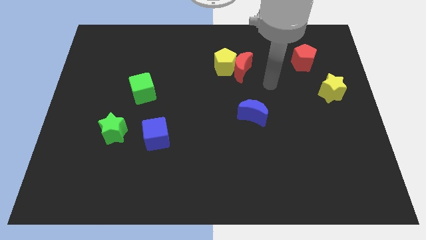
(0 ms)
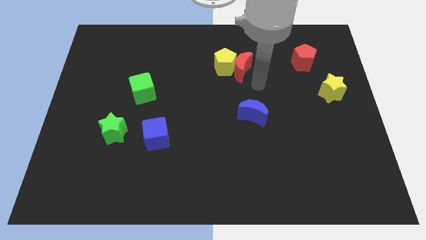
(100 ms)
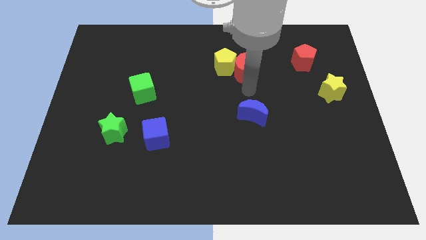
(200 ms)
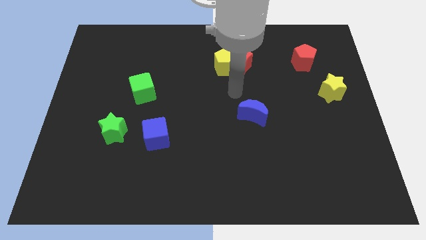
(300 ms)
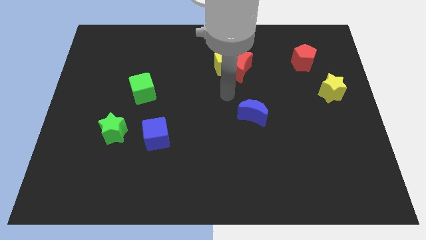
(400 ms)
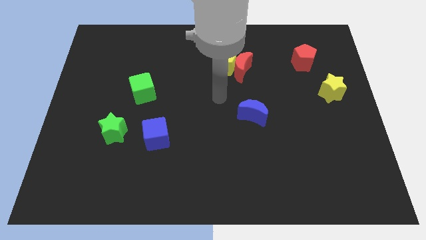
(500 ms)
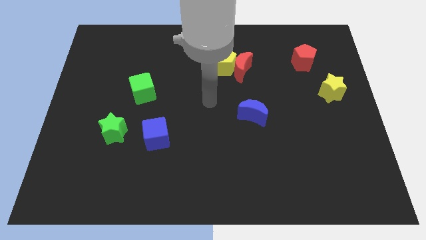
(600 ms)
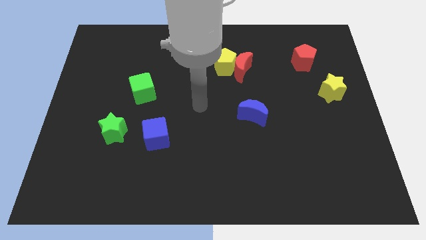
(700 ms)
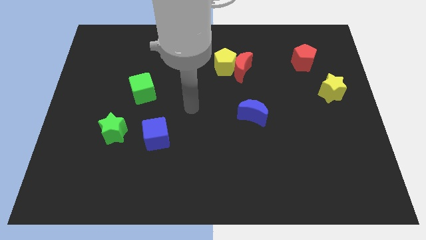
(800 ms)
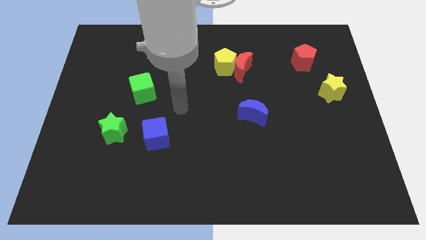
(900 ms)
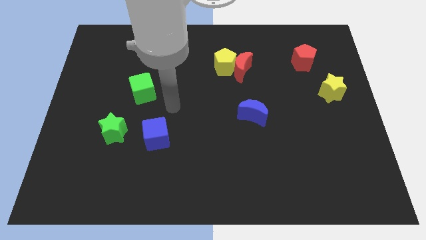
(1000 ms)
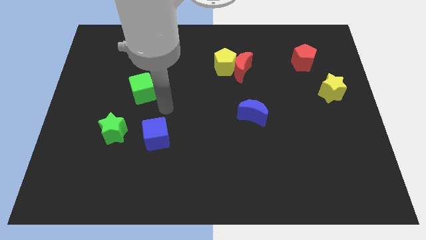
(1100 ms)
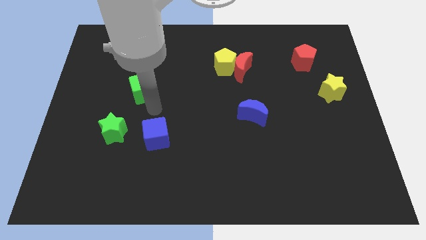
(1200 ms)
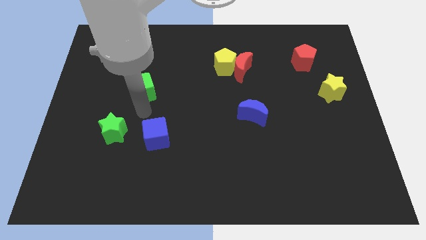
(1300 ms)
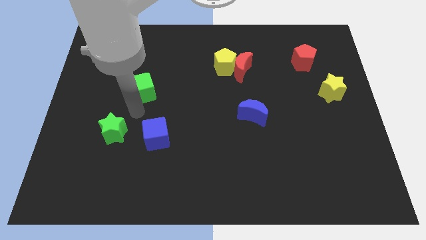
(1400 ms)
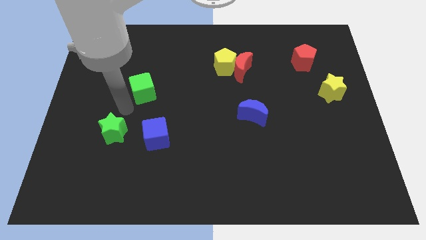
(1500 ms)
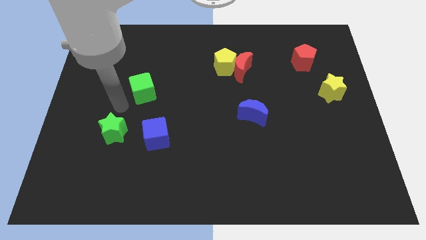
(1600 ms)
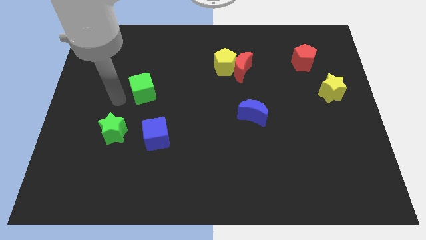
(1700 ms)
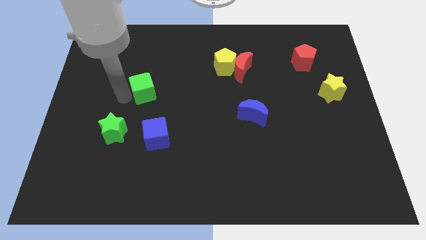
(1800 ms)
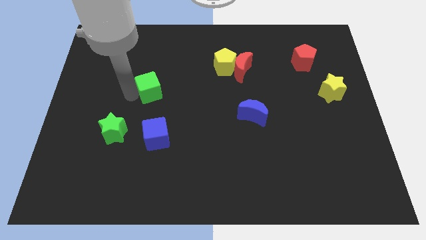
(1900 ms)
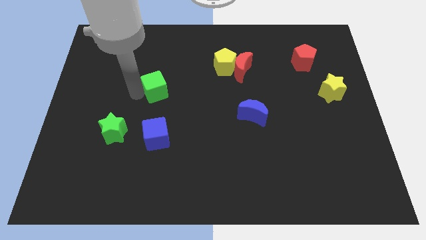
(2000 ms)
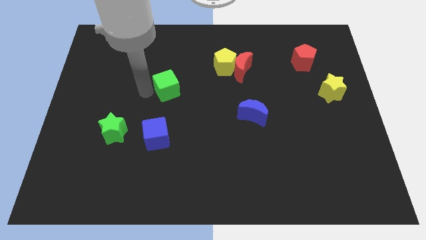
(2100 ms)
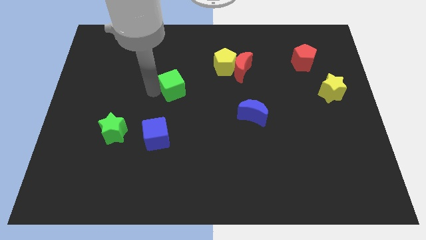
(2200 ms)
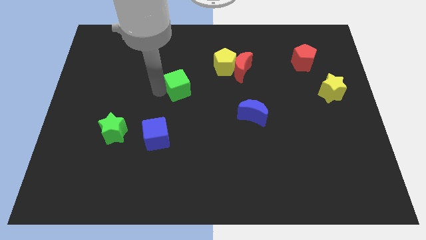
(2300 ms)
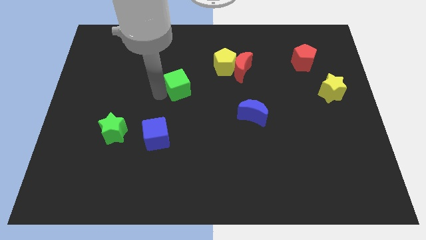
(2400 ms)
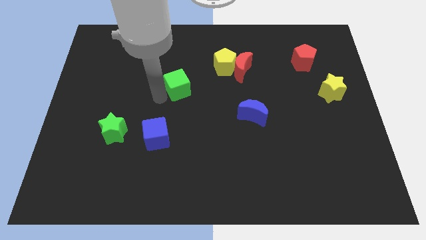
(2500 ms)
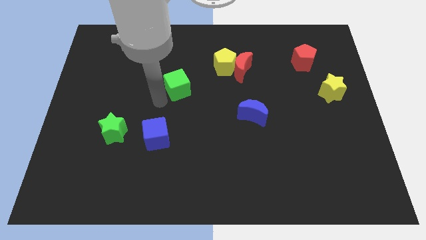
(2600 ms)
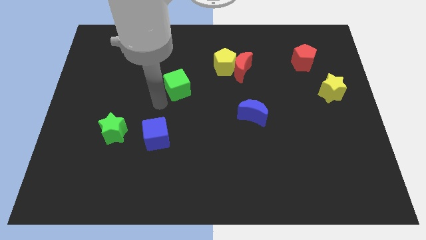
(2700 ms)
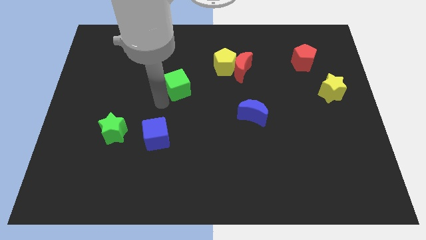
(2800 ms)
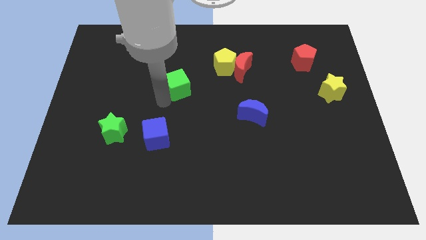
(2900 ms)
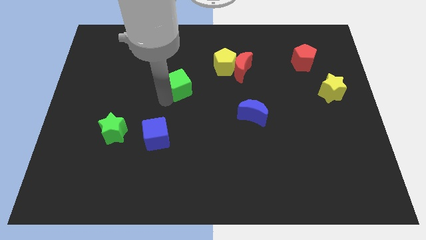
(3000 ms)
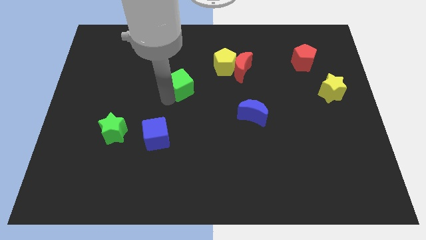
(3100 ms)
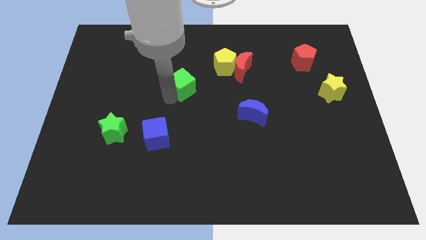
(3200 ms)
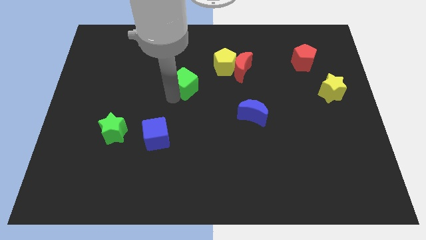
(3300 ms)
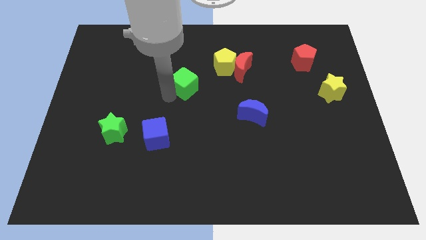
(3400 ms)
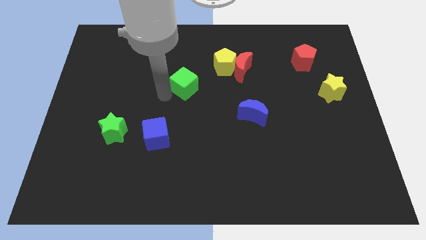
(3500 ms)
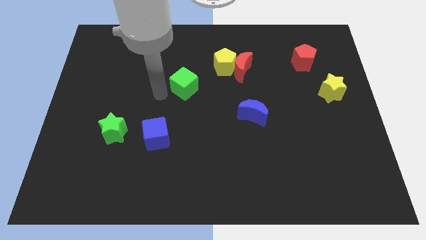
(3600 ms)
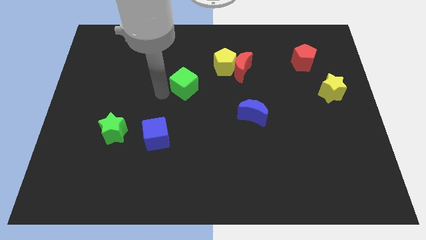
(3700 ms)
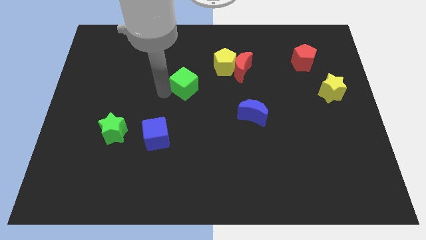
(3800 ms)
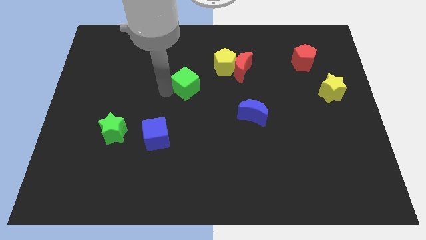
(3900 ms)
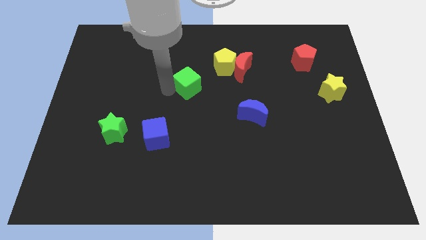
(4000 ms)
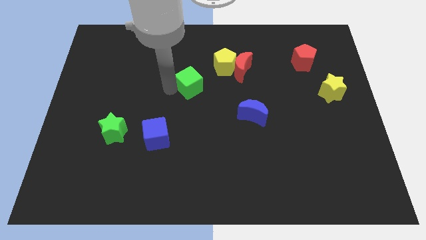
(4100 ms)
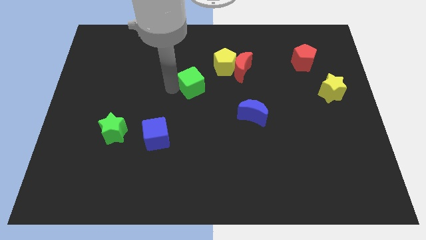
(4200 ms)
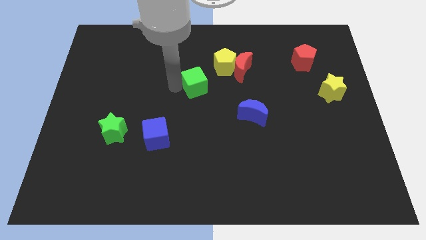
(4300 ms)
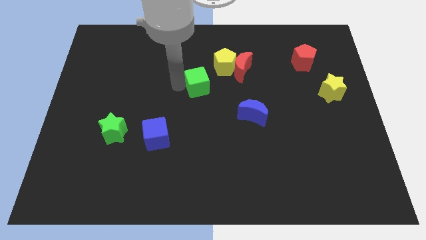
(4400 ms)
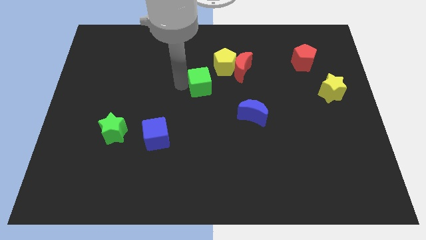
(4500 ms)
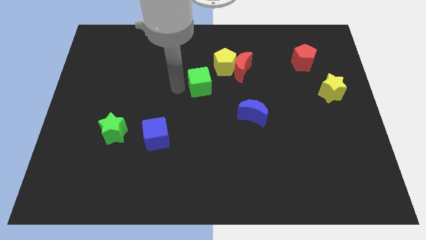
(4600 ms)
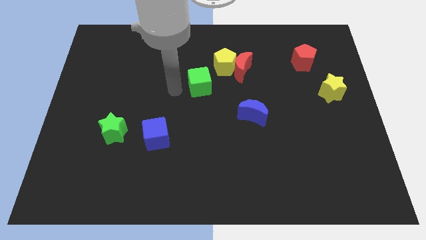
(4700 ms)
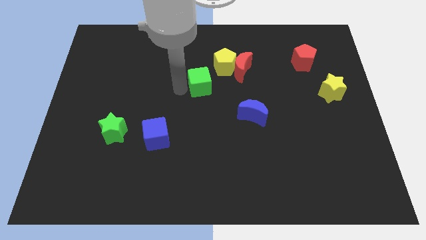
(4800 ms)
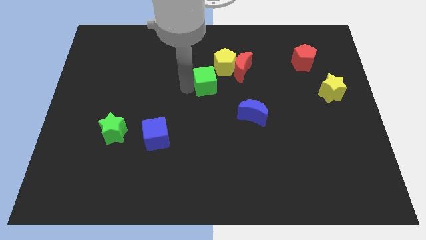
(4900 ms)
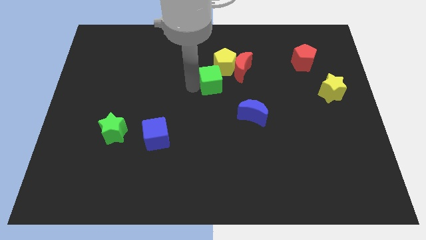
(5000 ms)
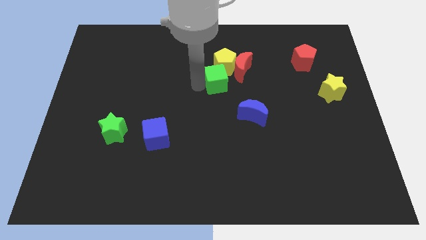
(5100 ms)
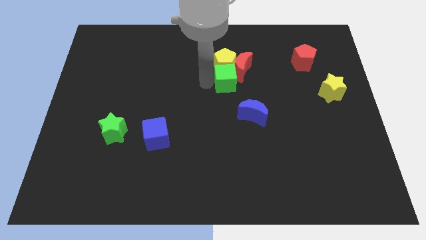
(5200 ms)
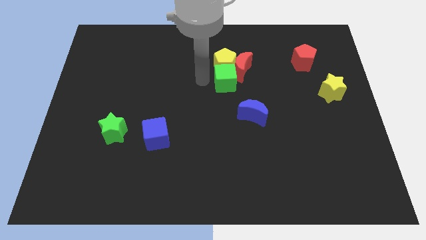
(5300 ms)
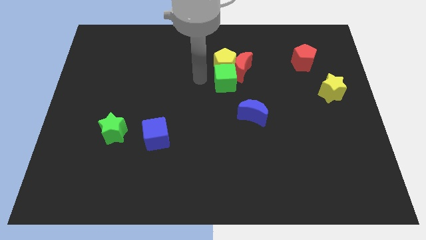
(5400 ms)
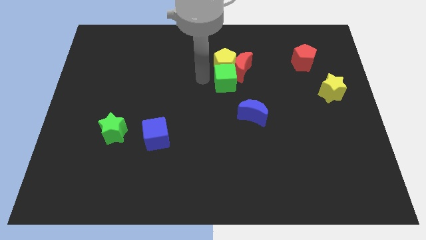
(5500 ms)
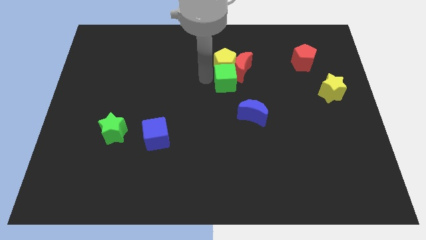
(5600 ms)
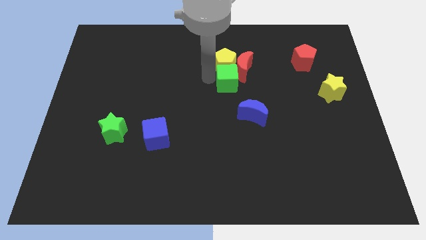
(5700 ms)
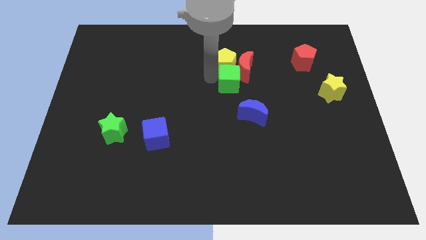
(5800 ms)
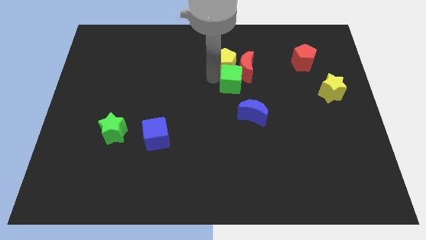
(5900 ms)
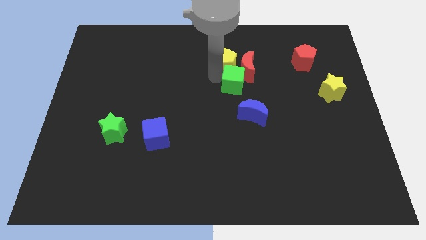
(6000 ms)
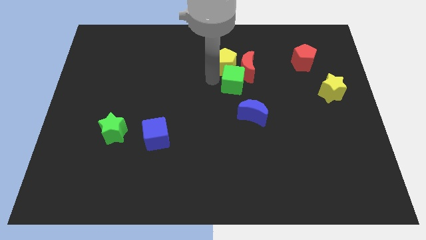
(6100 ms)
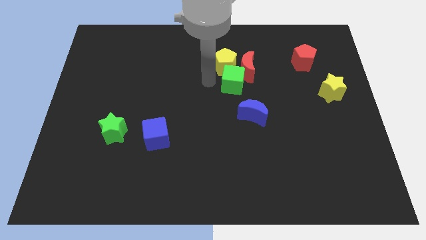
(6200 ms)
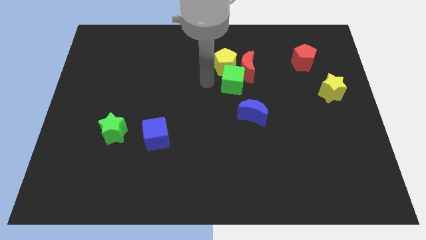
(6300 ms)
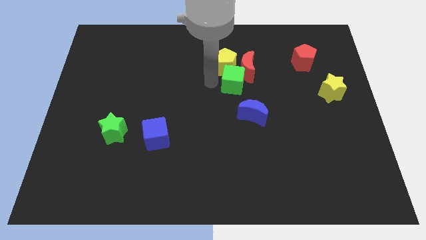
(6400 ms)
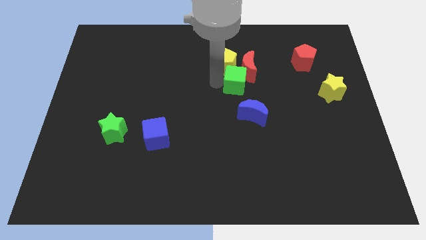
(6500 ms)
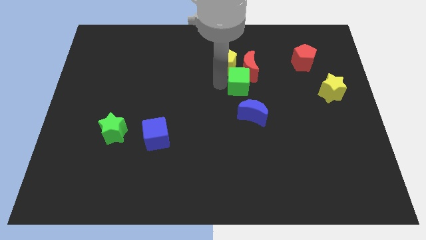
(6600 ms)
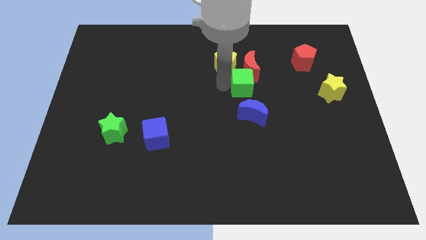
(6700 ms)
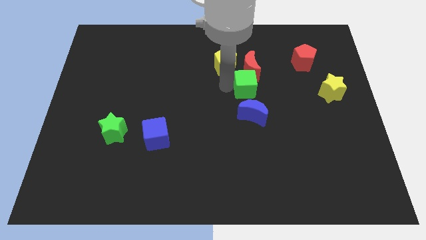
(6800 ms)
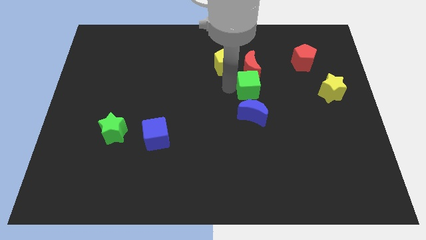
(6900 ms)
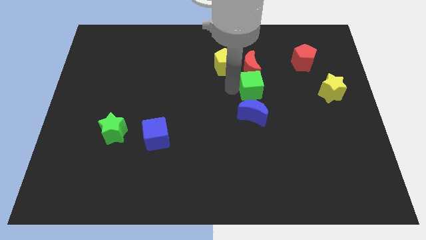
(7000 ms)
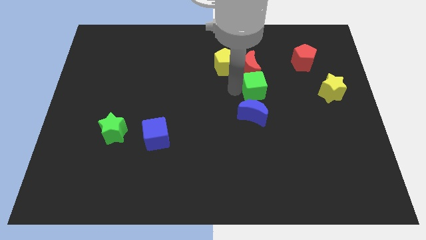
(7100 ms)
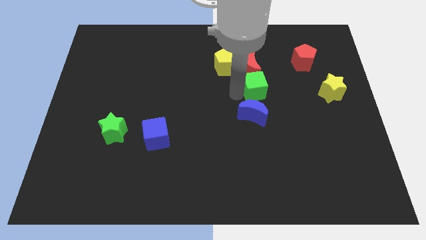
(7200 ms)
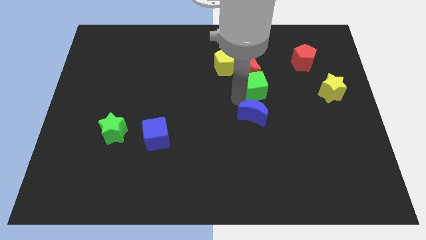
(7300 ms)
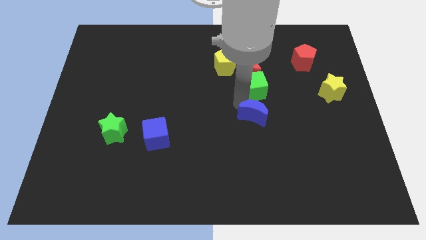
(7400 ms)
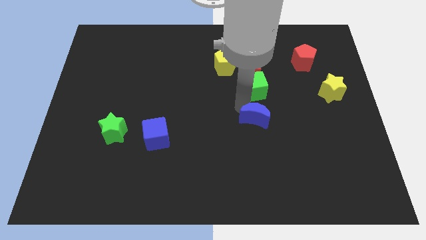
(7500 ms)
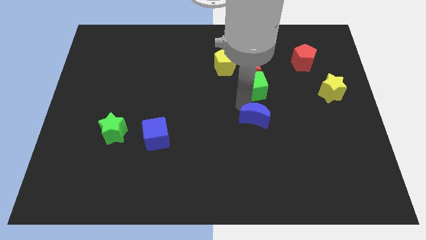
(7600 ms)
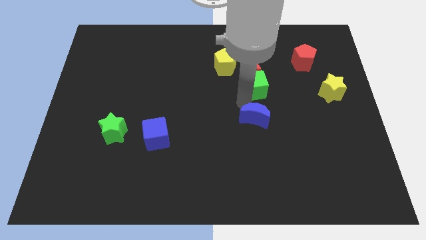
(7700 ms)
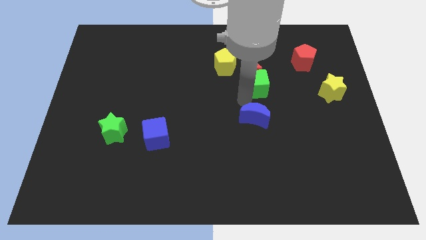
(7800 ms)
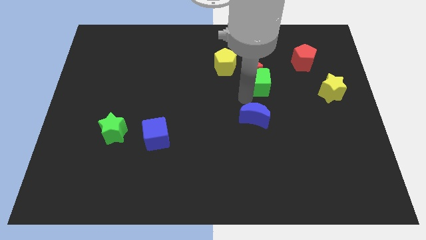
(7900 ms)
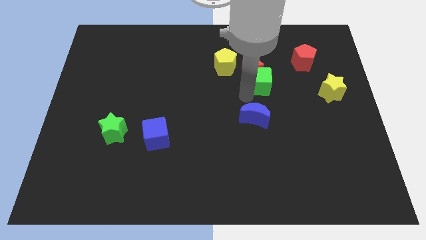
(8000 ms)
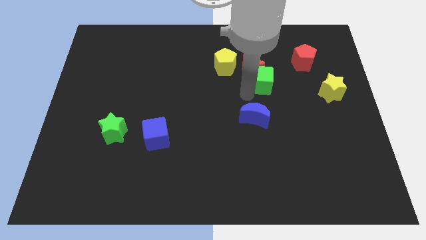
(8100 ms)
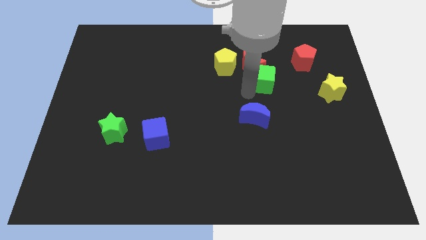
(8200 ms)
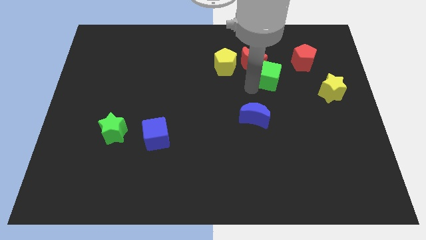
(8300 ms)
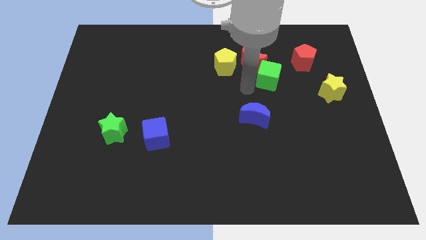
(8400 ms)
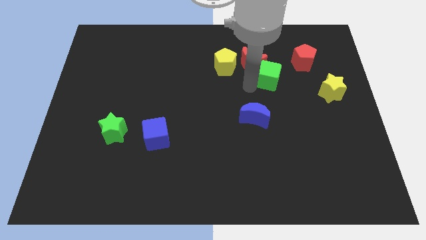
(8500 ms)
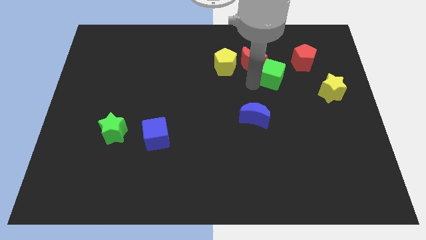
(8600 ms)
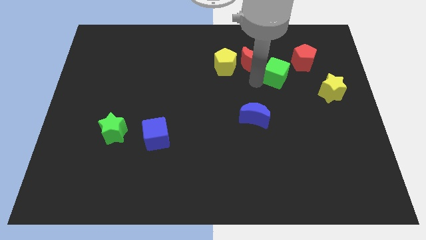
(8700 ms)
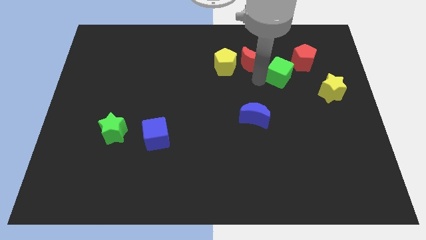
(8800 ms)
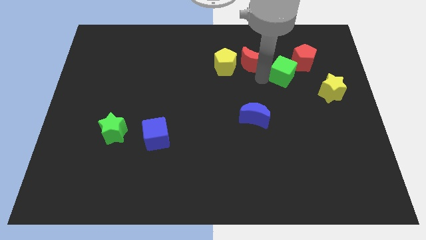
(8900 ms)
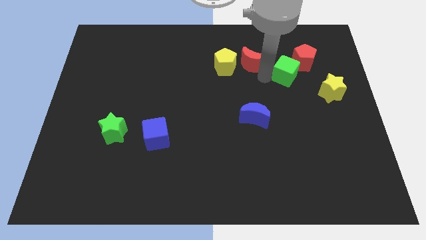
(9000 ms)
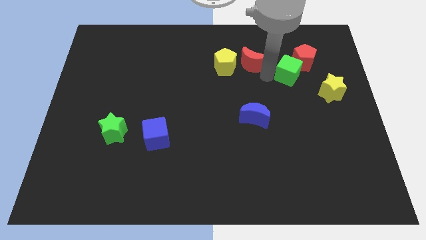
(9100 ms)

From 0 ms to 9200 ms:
put the green cube to the red pentagon
